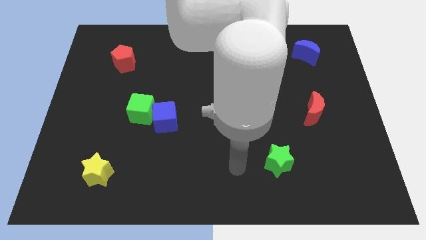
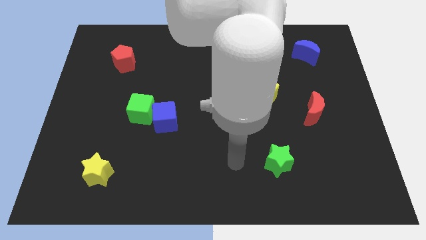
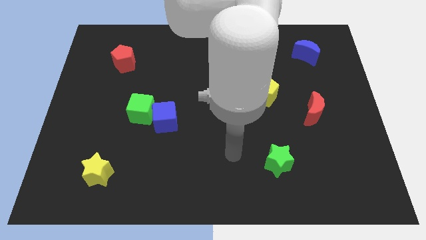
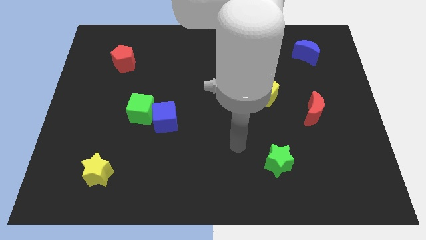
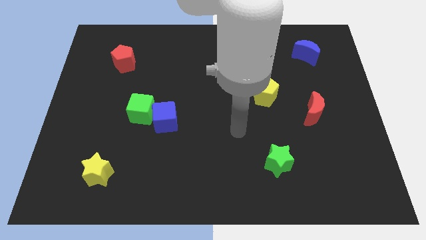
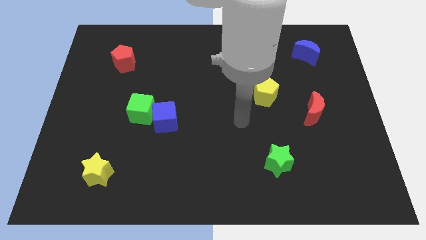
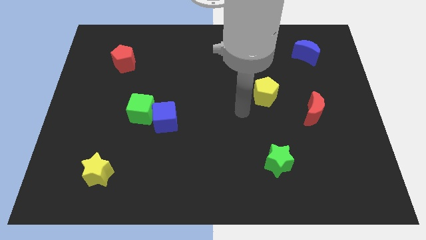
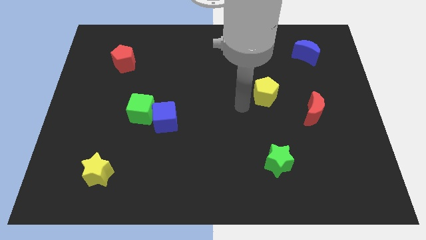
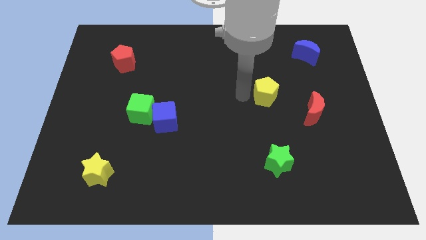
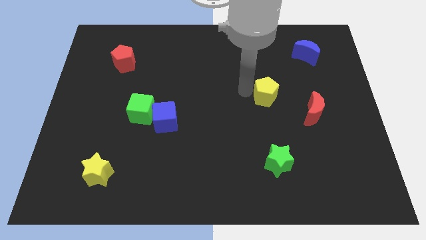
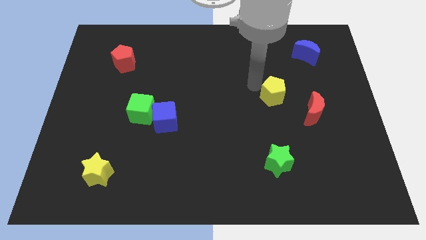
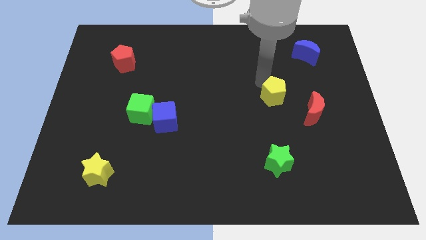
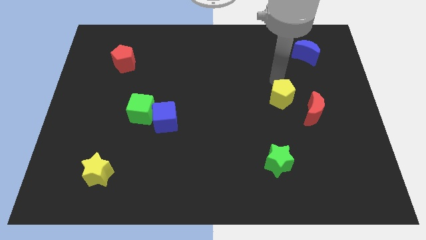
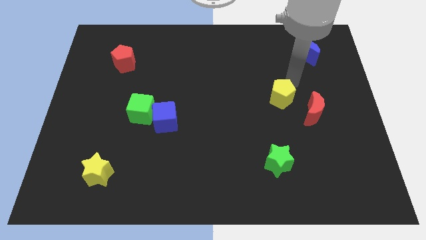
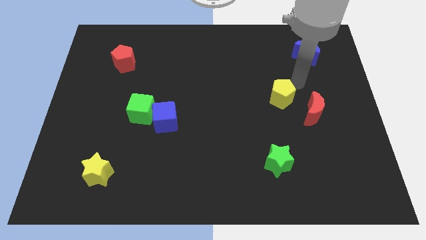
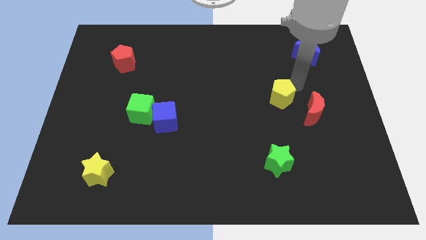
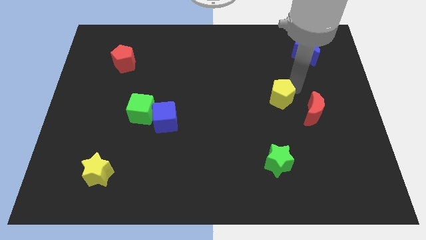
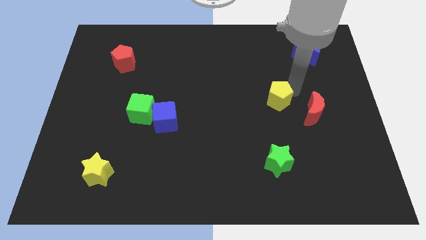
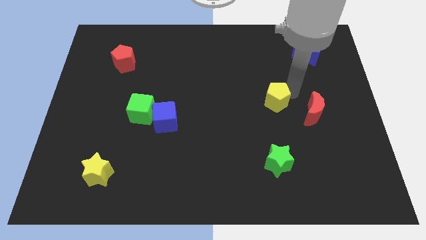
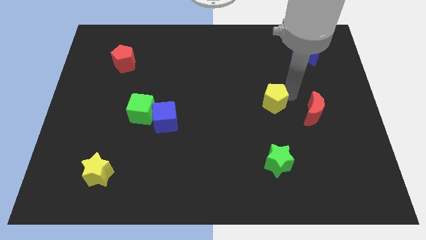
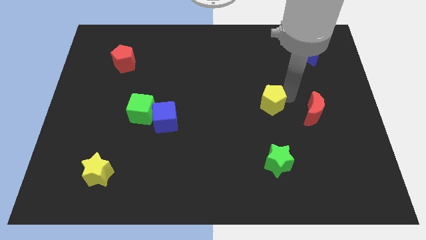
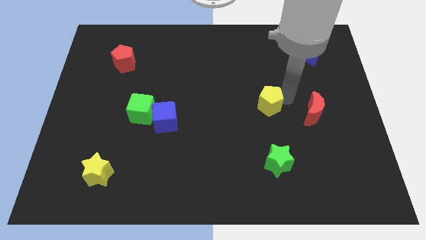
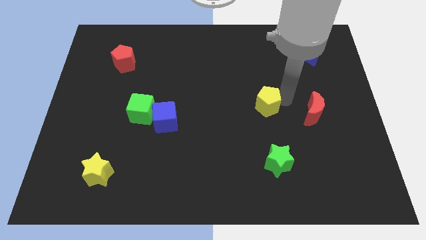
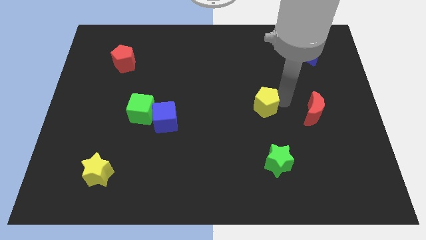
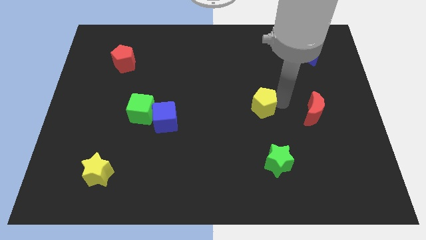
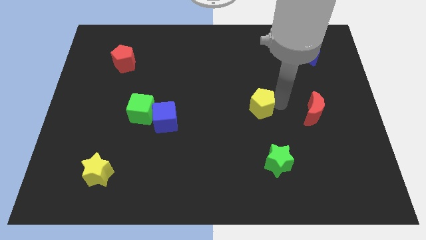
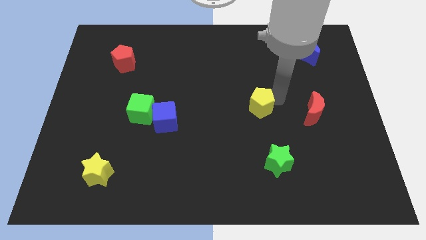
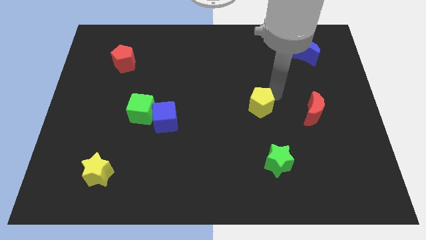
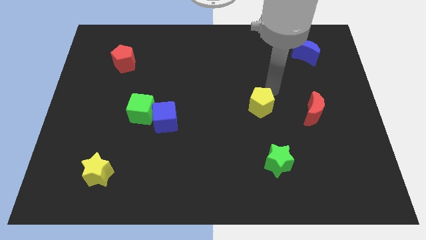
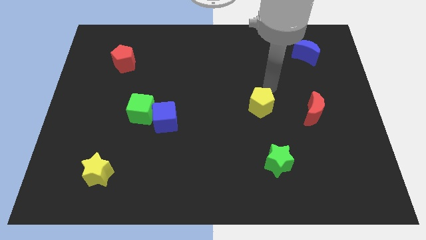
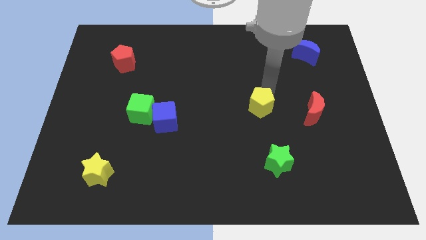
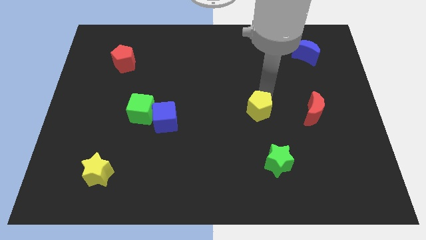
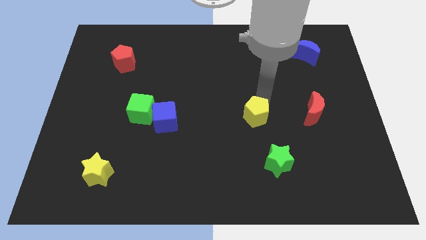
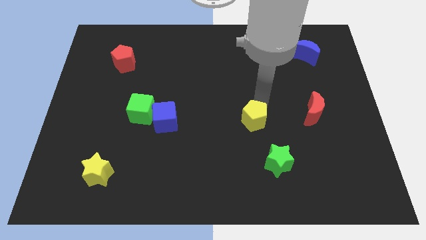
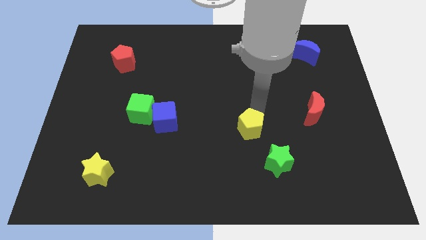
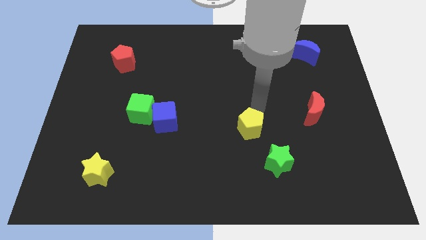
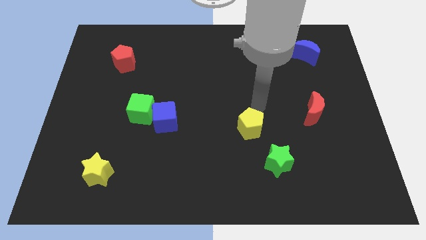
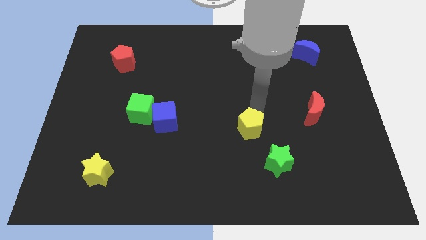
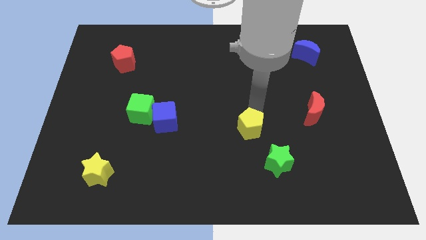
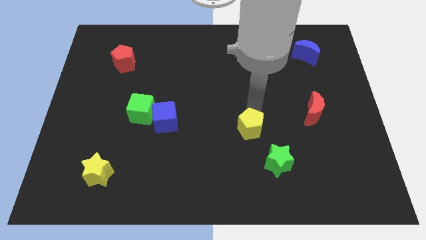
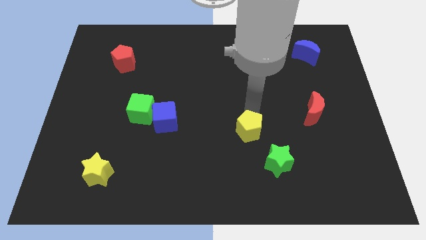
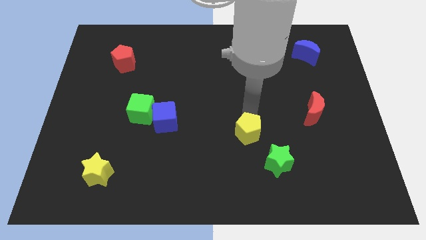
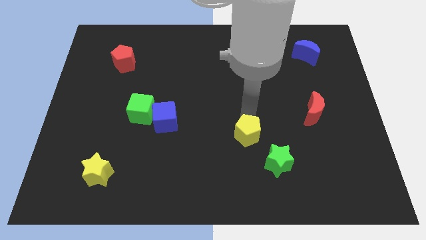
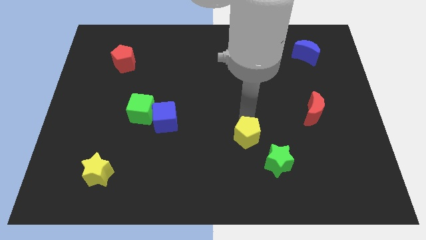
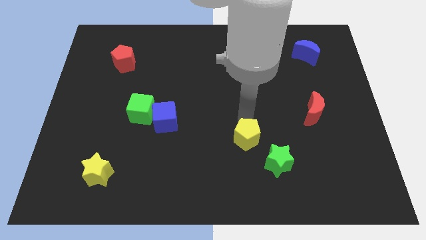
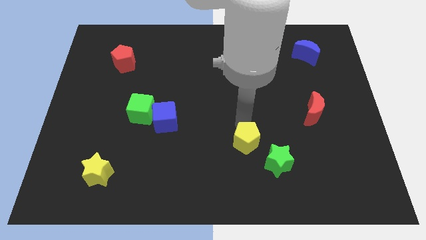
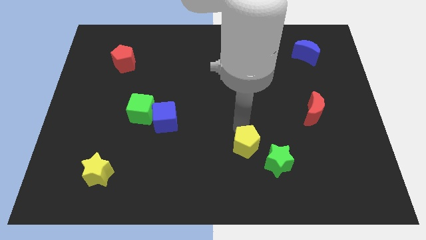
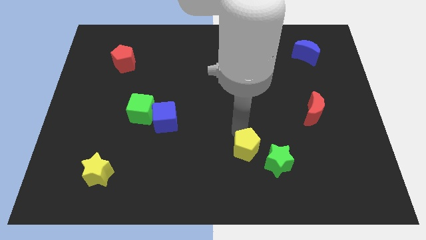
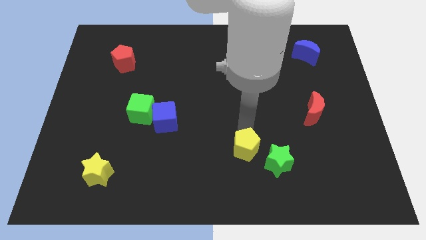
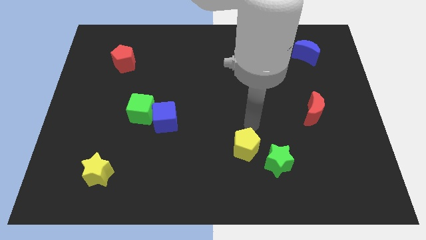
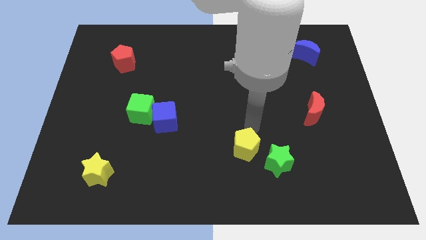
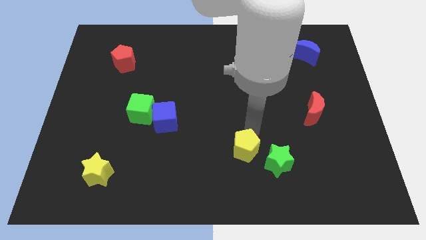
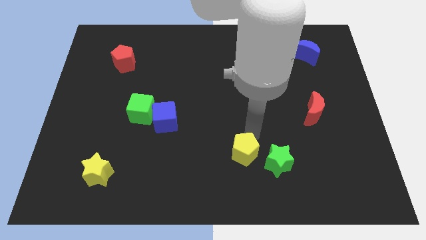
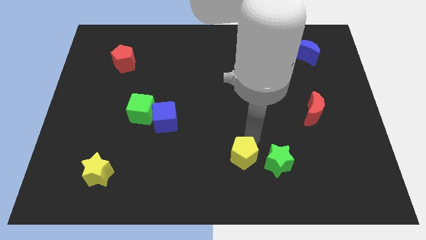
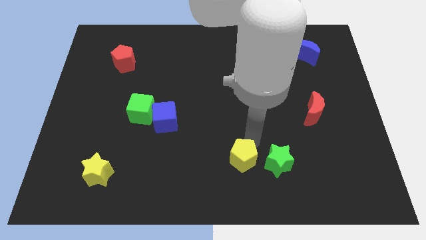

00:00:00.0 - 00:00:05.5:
slide the yellow pentagon to the bottom

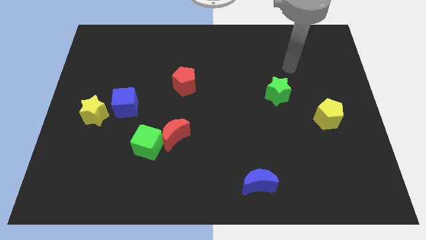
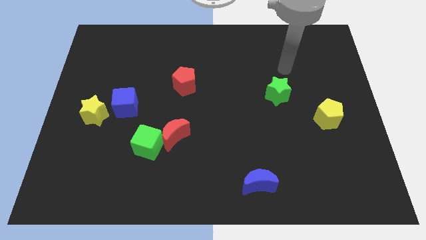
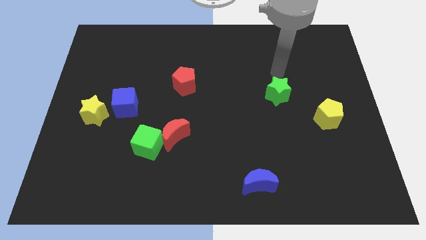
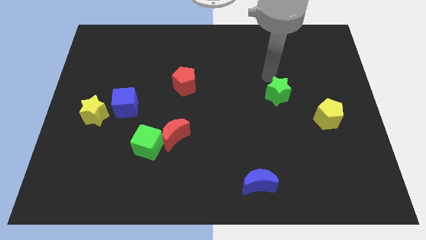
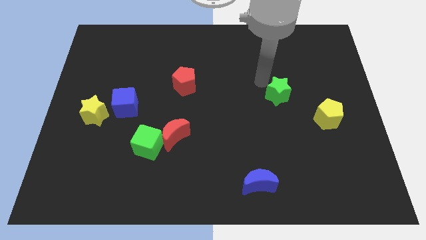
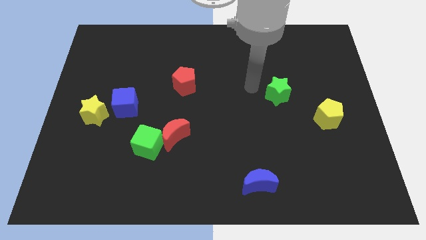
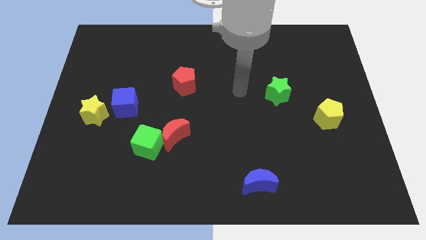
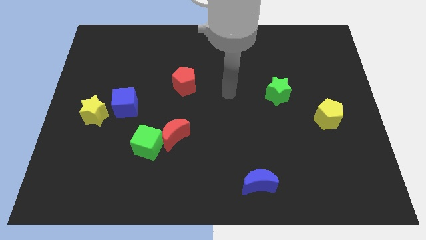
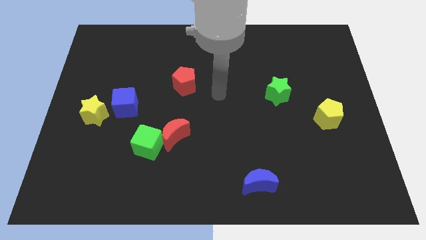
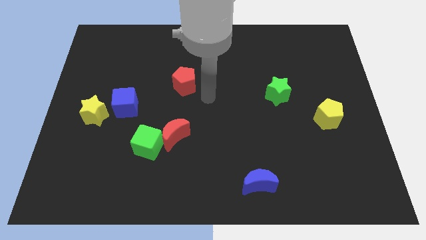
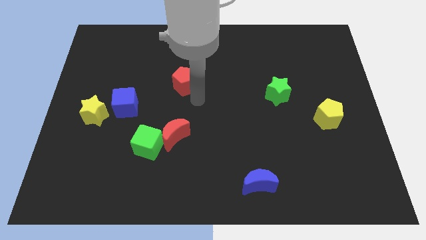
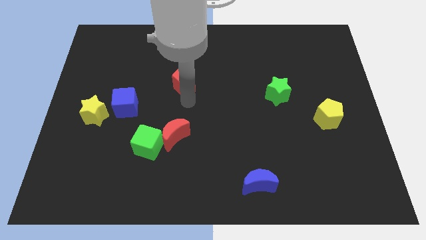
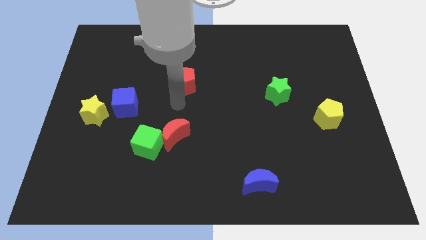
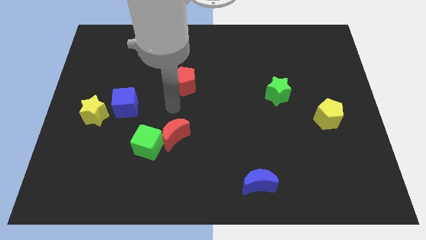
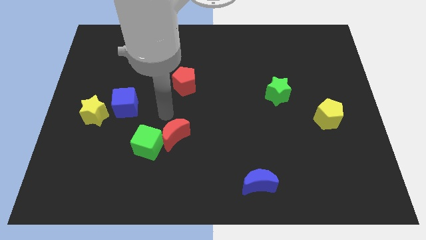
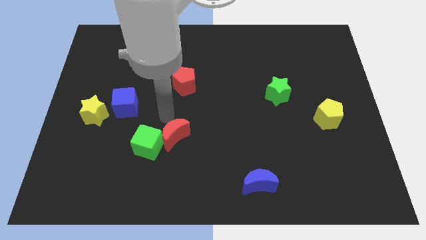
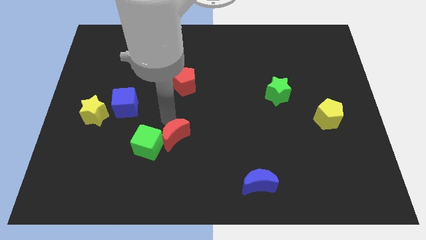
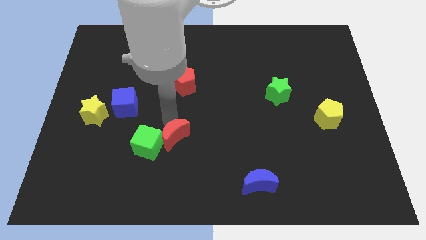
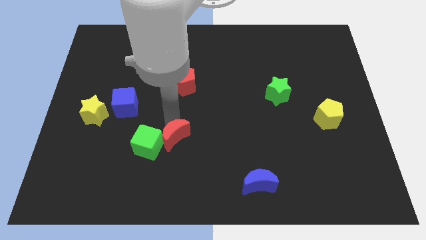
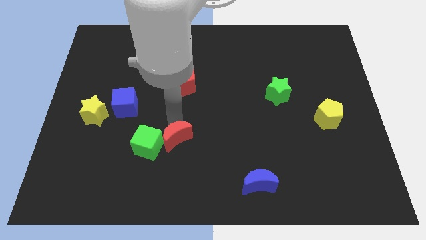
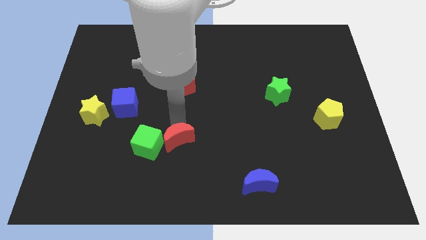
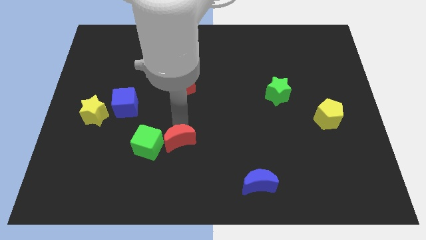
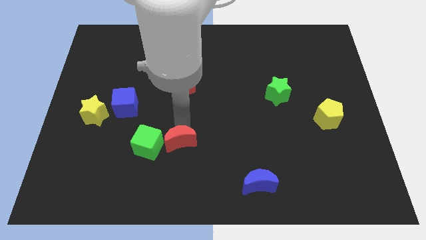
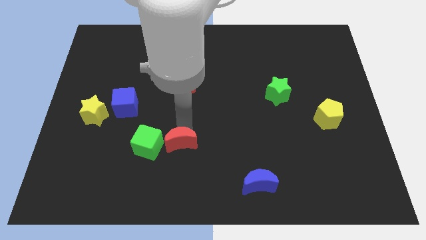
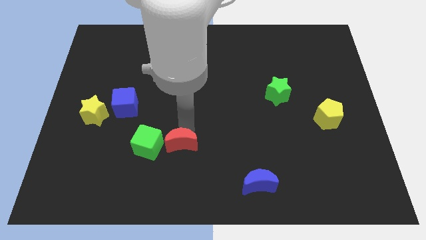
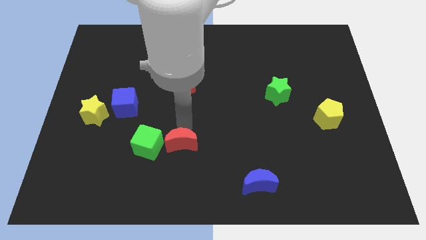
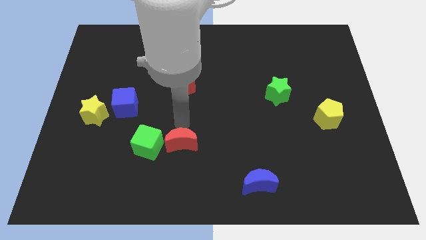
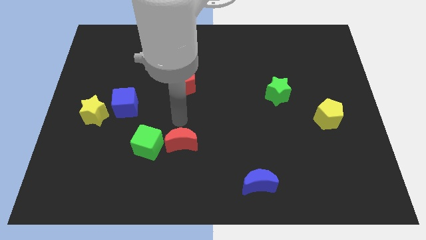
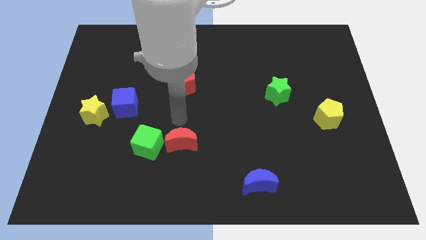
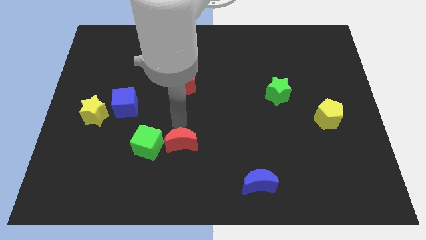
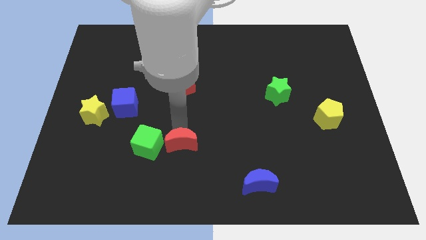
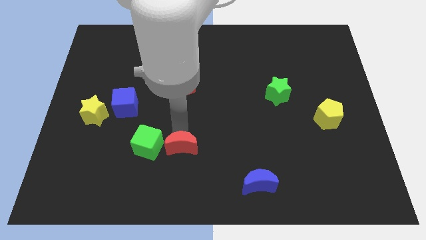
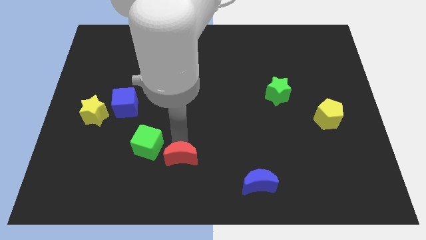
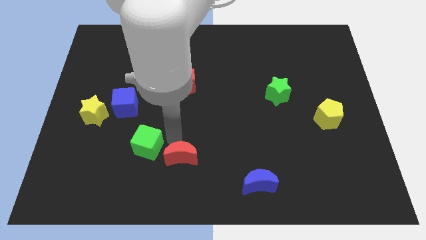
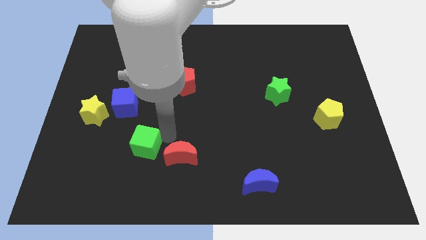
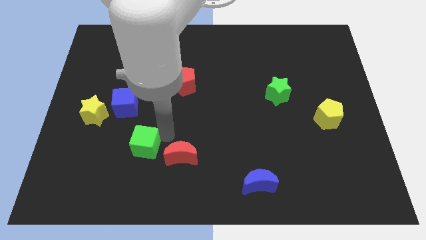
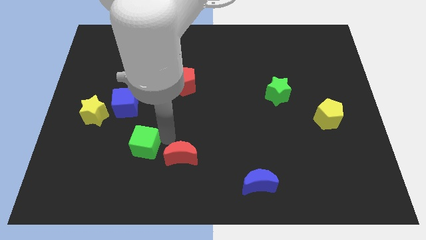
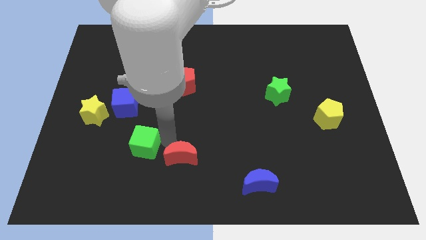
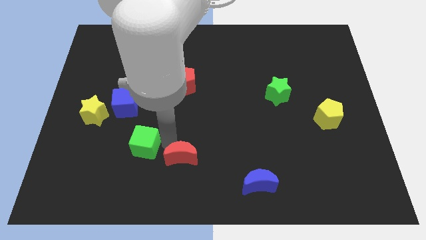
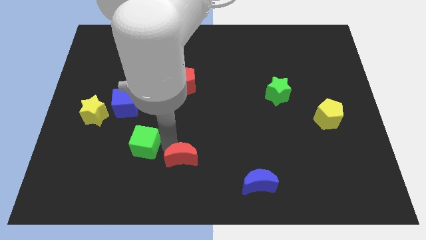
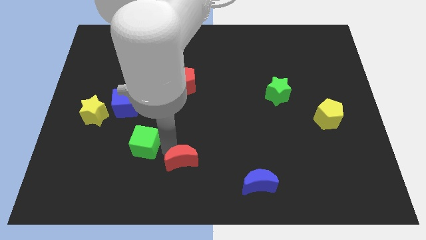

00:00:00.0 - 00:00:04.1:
move the red moon to the bottom side
